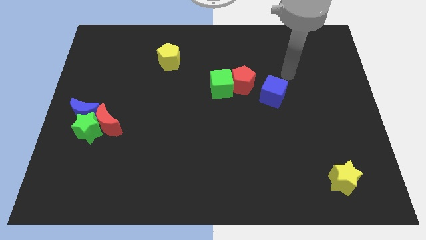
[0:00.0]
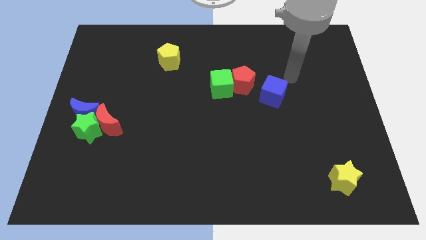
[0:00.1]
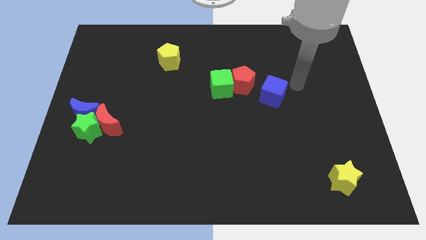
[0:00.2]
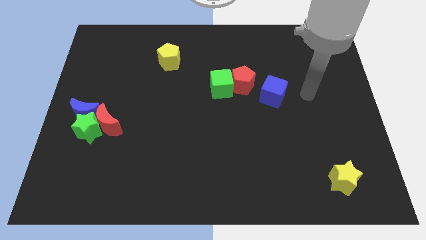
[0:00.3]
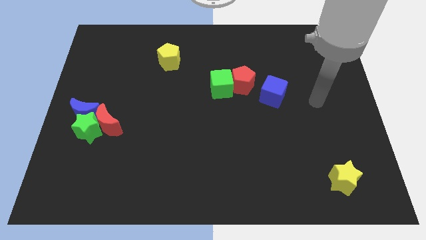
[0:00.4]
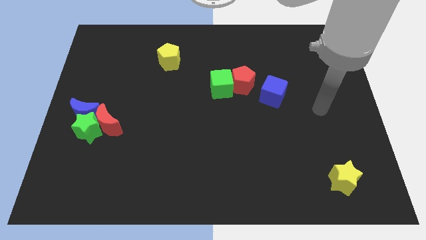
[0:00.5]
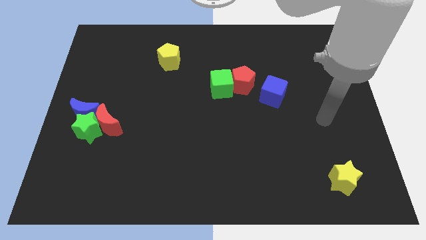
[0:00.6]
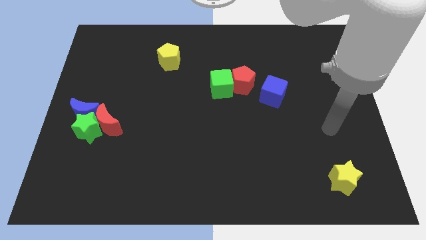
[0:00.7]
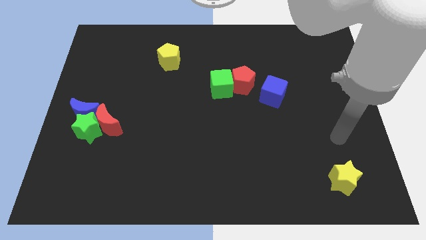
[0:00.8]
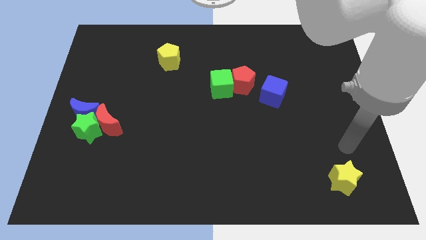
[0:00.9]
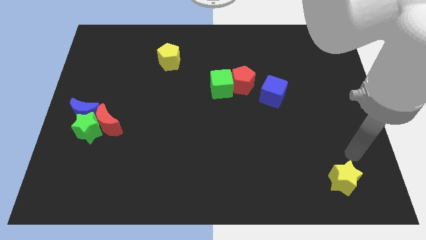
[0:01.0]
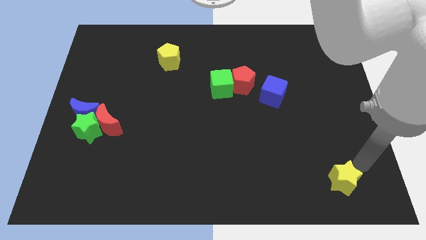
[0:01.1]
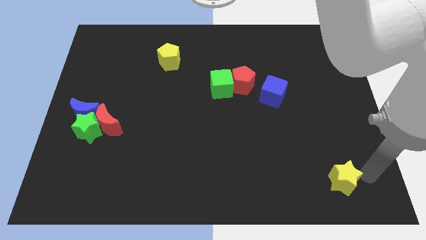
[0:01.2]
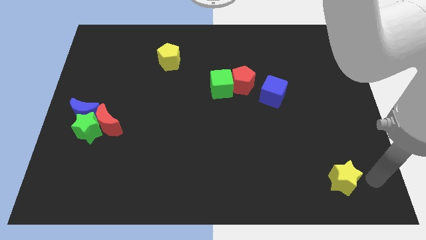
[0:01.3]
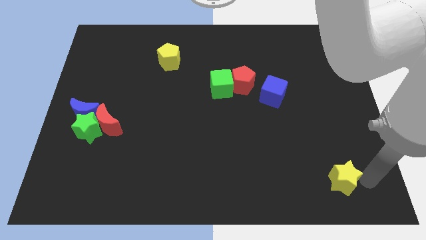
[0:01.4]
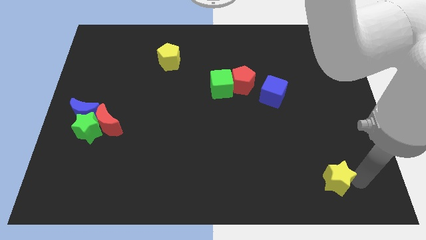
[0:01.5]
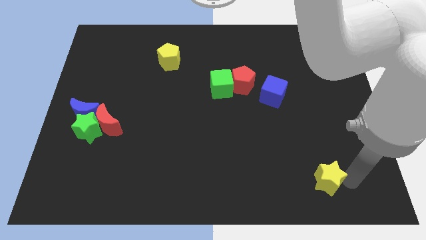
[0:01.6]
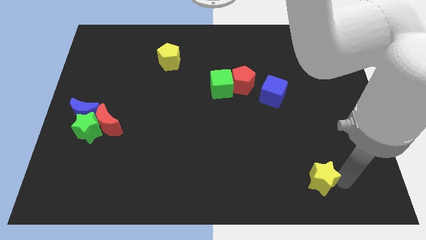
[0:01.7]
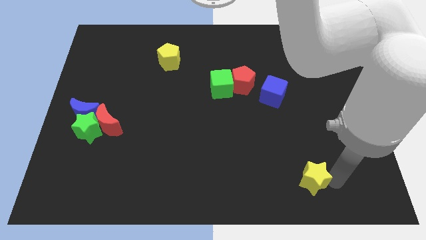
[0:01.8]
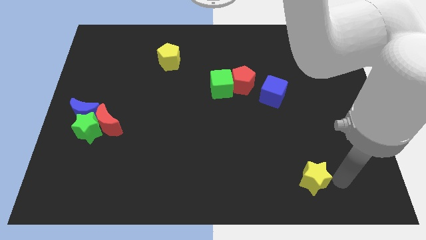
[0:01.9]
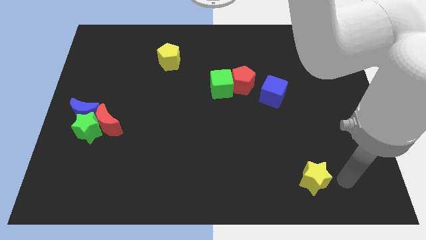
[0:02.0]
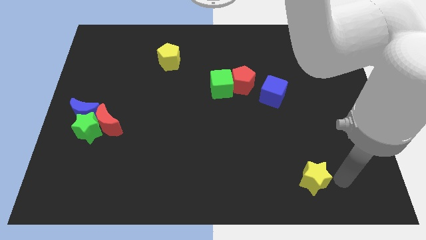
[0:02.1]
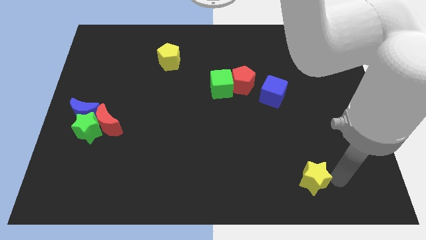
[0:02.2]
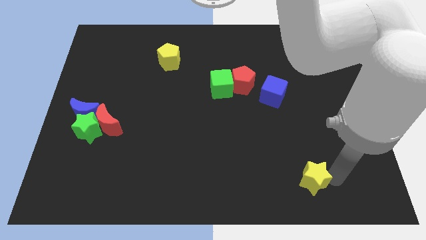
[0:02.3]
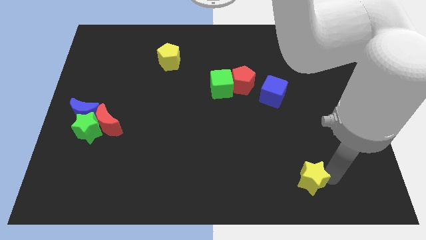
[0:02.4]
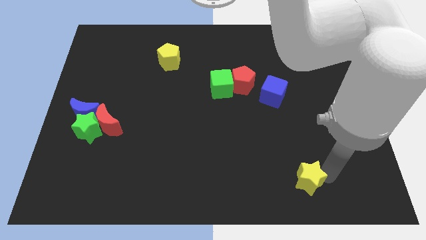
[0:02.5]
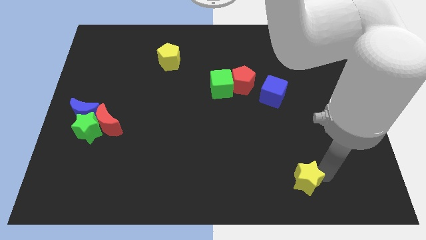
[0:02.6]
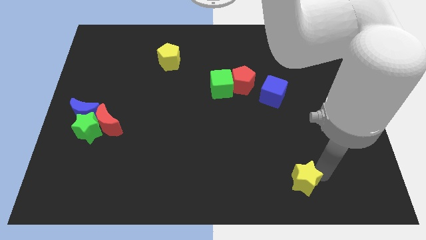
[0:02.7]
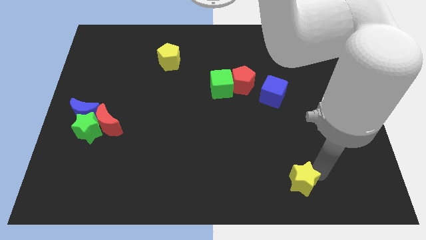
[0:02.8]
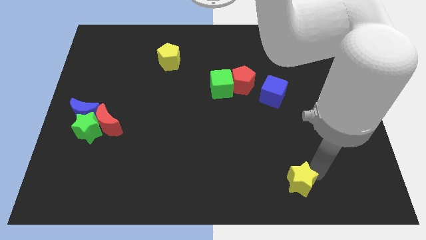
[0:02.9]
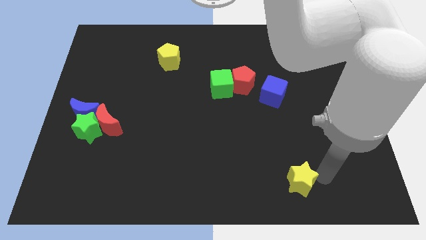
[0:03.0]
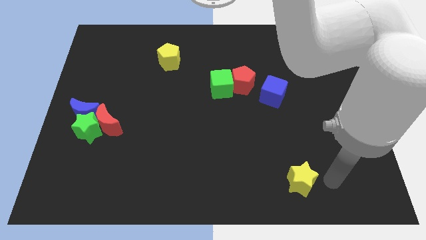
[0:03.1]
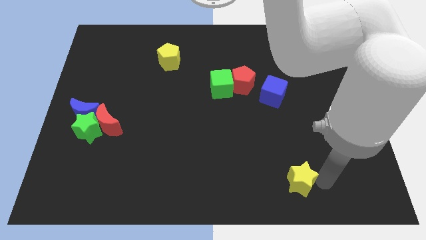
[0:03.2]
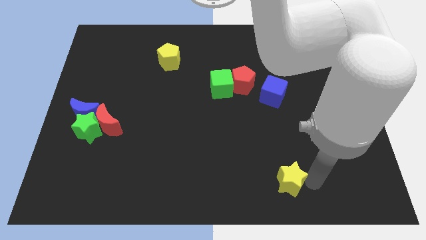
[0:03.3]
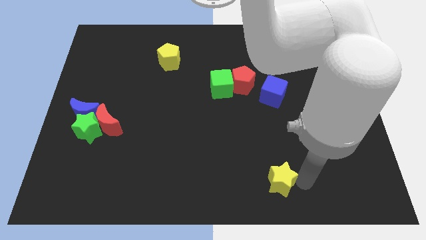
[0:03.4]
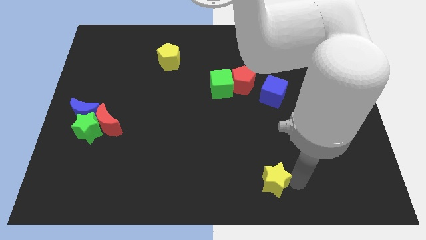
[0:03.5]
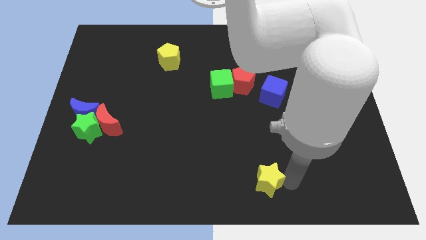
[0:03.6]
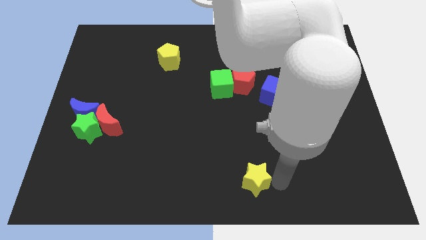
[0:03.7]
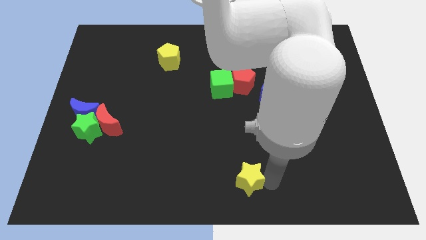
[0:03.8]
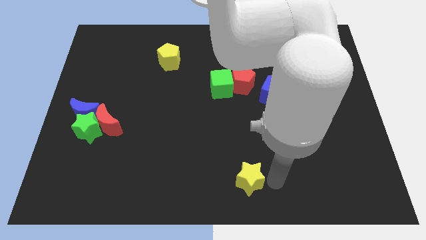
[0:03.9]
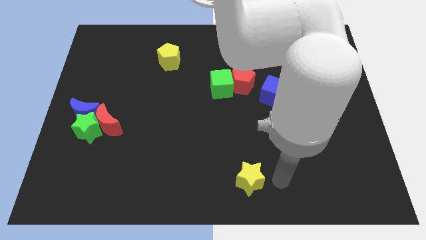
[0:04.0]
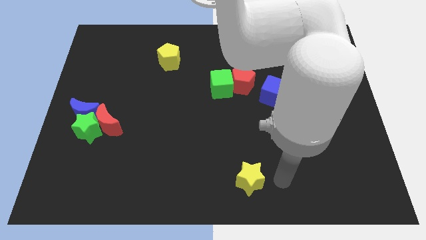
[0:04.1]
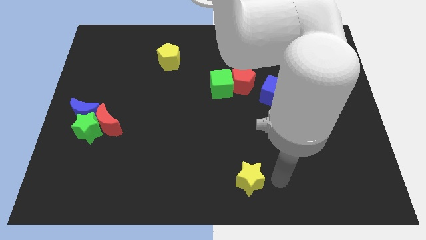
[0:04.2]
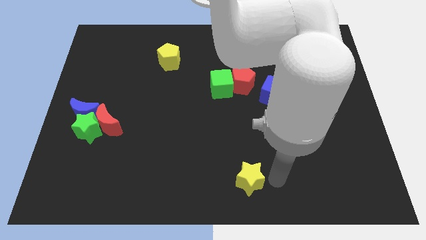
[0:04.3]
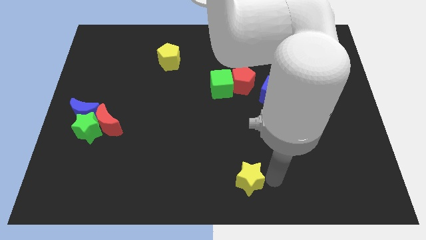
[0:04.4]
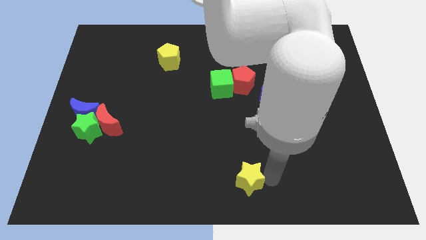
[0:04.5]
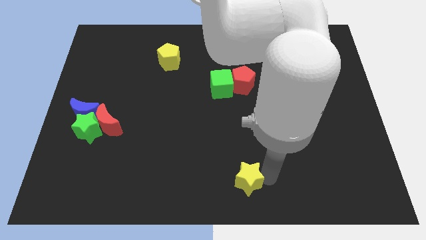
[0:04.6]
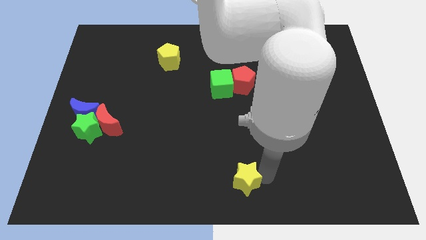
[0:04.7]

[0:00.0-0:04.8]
push the yellow star to the left

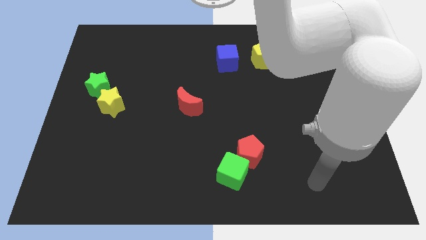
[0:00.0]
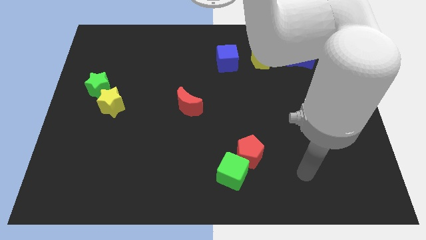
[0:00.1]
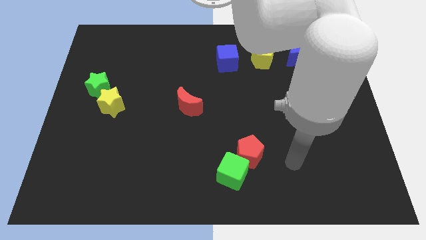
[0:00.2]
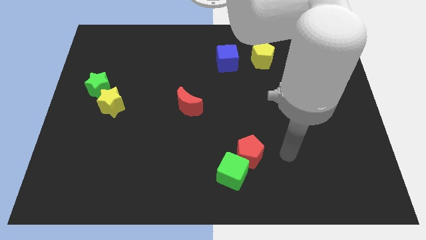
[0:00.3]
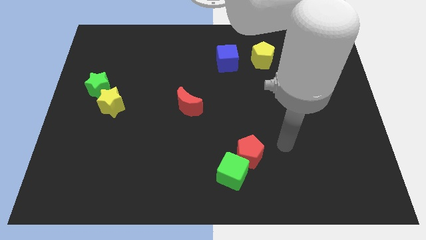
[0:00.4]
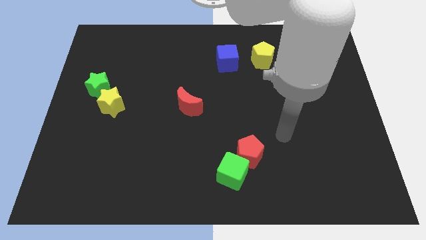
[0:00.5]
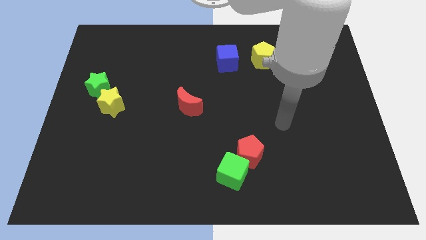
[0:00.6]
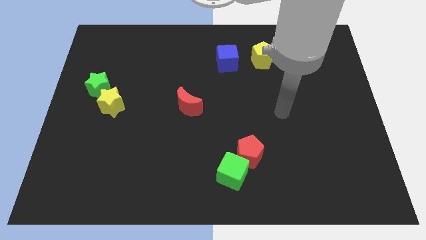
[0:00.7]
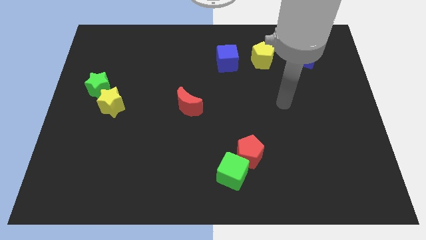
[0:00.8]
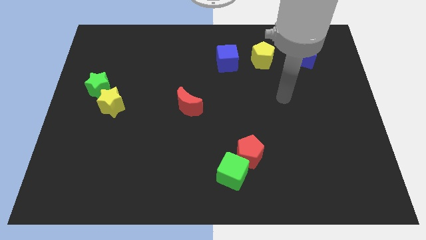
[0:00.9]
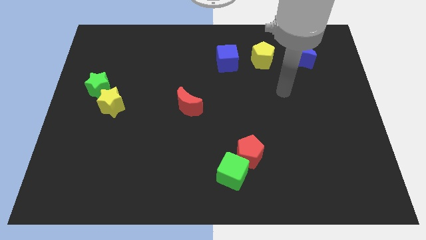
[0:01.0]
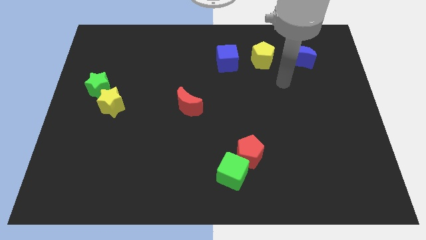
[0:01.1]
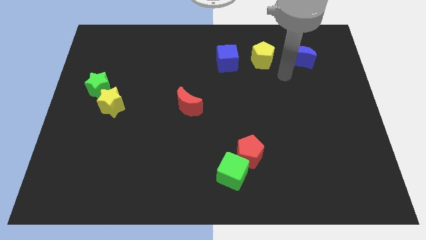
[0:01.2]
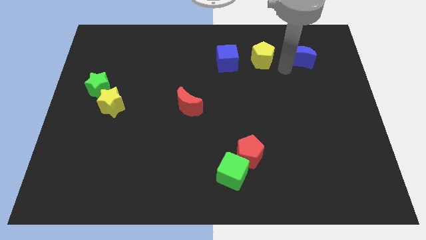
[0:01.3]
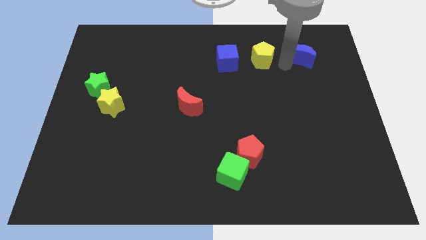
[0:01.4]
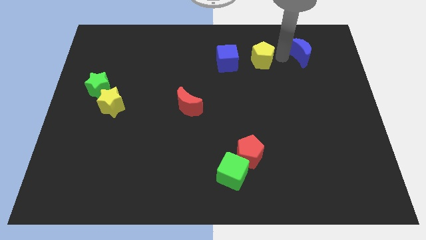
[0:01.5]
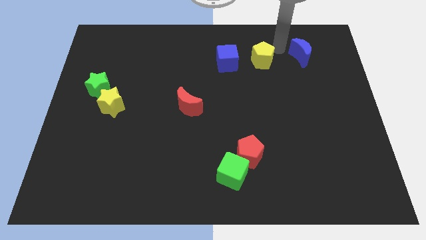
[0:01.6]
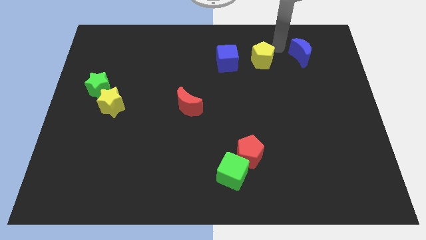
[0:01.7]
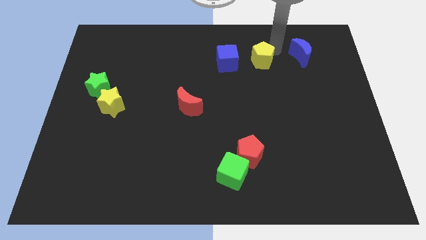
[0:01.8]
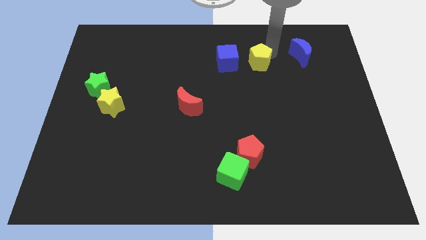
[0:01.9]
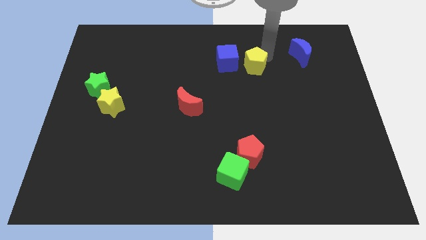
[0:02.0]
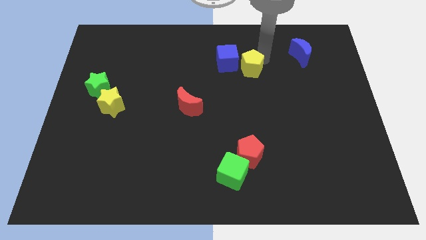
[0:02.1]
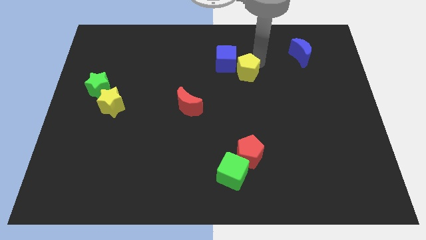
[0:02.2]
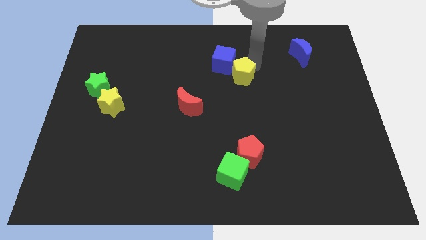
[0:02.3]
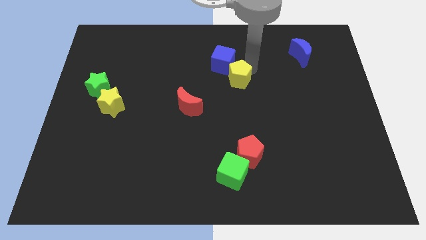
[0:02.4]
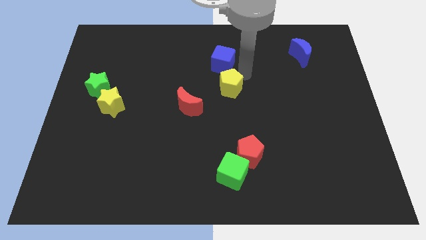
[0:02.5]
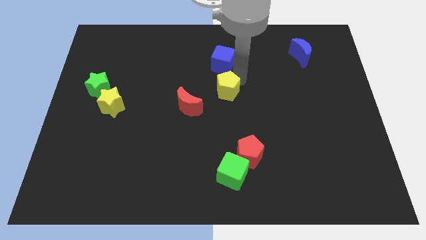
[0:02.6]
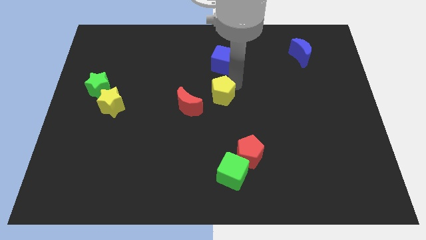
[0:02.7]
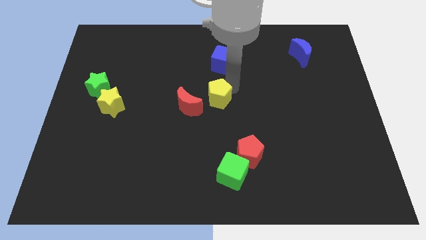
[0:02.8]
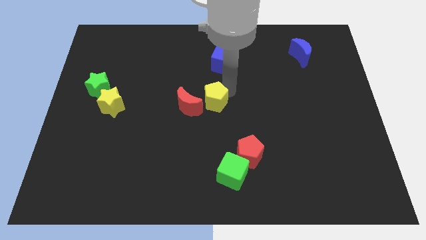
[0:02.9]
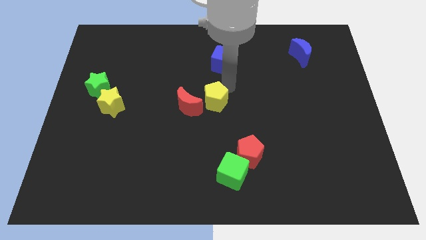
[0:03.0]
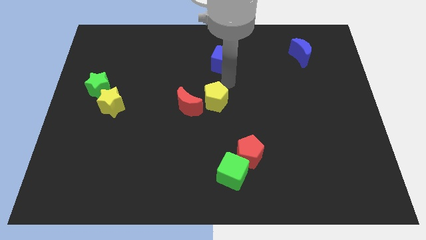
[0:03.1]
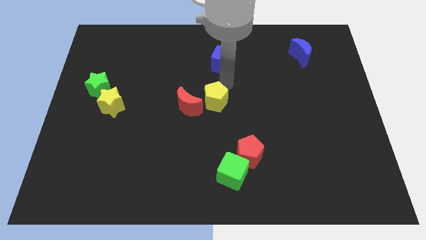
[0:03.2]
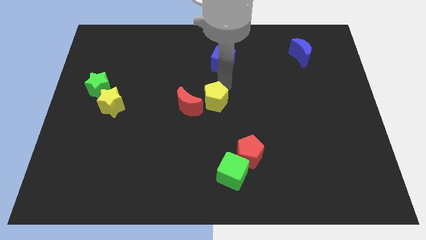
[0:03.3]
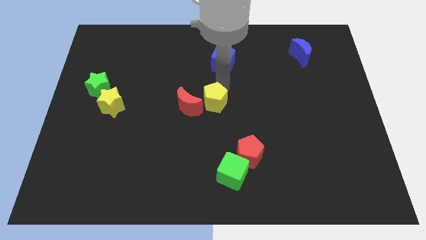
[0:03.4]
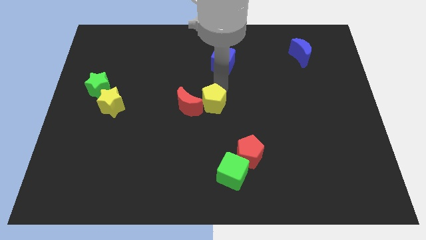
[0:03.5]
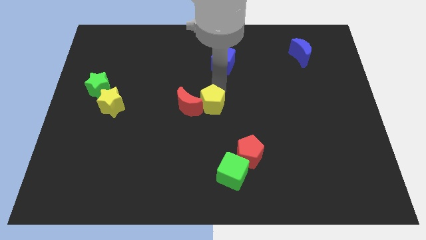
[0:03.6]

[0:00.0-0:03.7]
move the yellow pentagon downwards and then to the left
